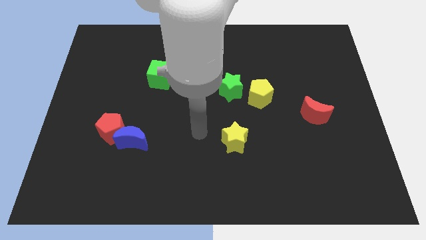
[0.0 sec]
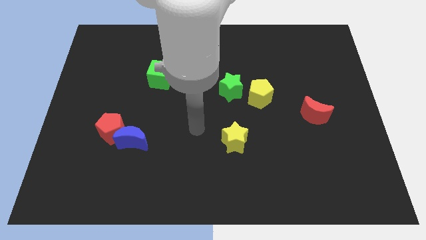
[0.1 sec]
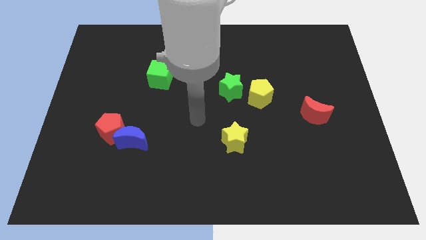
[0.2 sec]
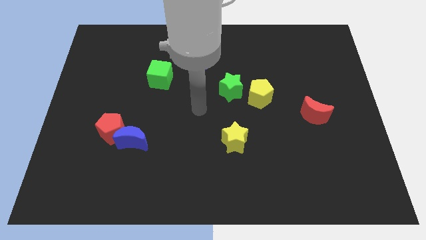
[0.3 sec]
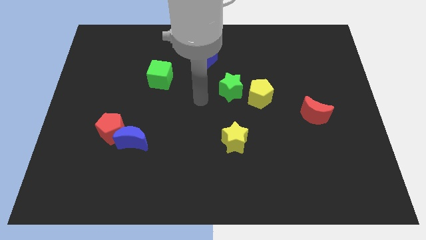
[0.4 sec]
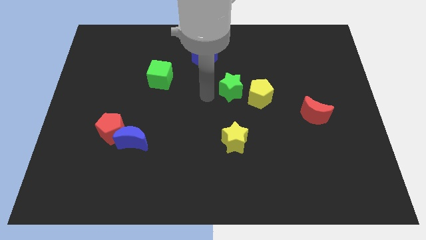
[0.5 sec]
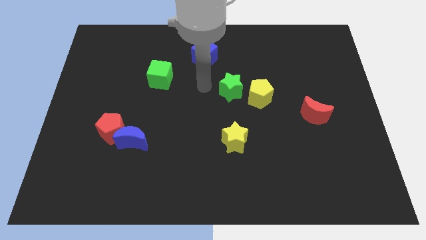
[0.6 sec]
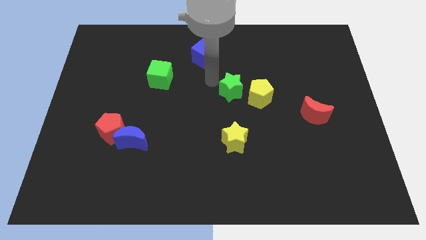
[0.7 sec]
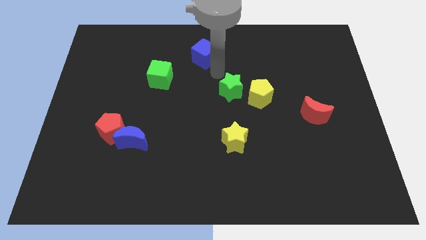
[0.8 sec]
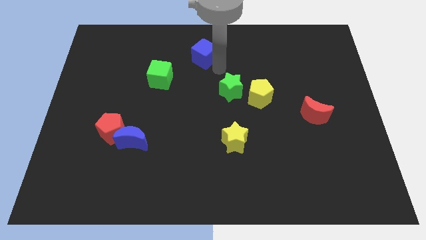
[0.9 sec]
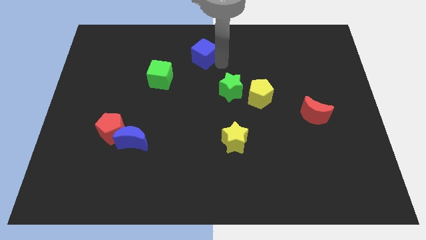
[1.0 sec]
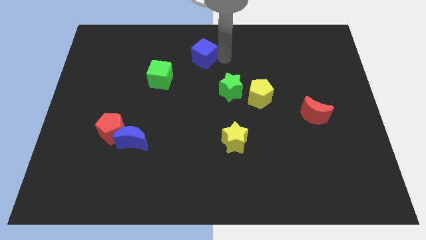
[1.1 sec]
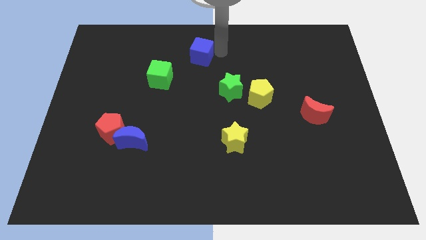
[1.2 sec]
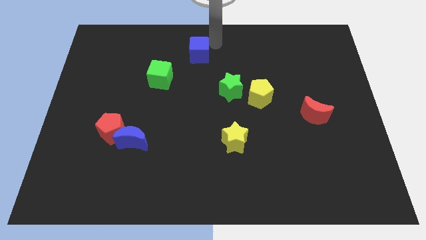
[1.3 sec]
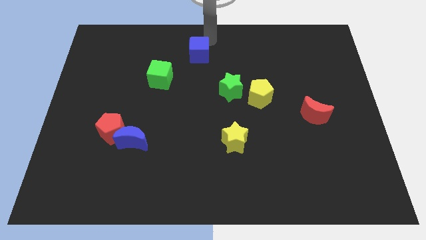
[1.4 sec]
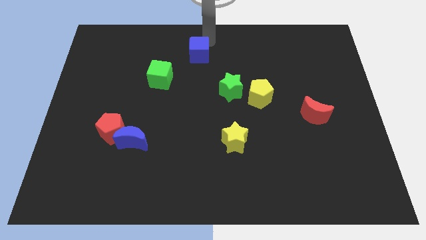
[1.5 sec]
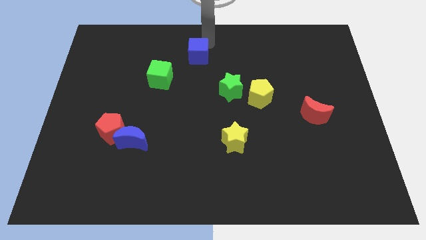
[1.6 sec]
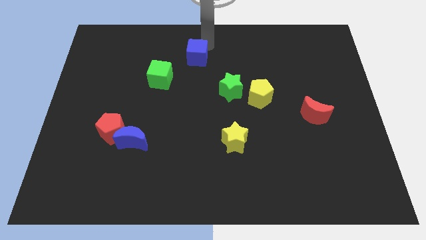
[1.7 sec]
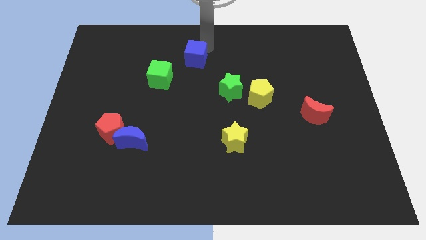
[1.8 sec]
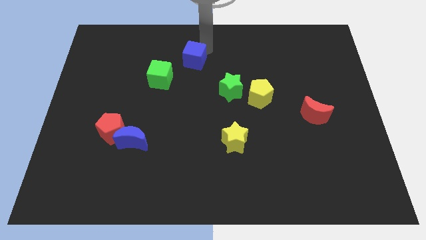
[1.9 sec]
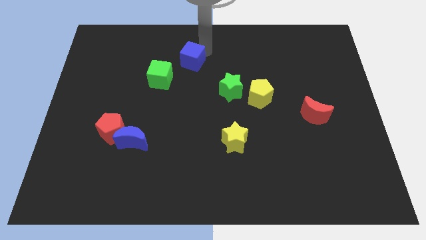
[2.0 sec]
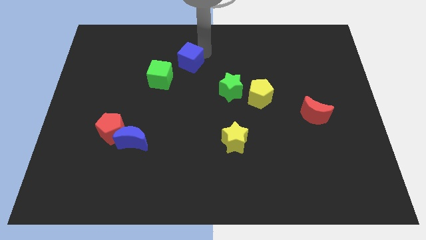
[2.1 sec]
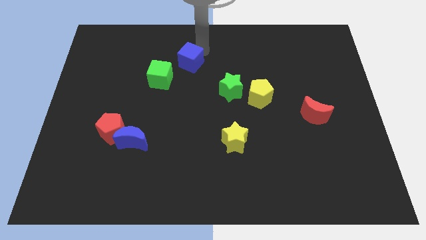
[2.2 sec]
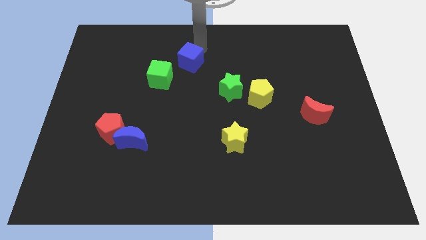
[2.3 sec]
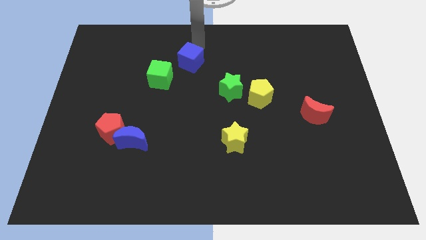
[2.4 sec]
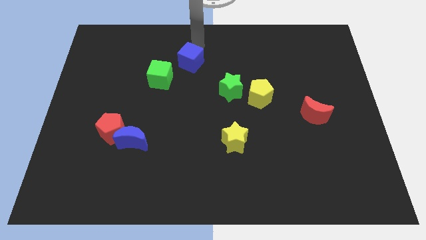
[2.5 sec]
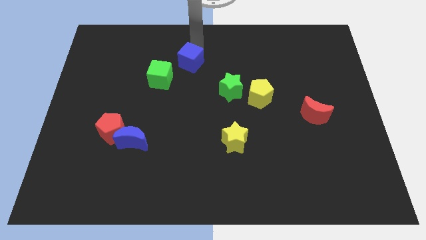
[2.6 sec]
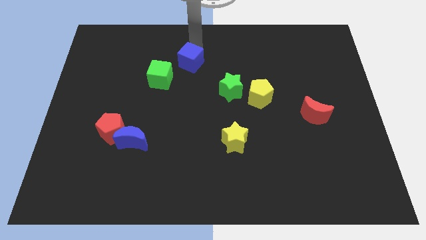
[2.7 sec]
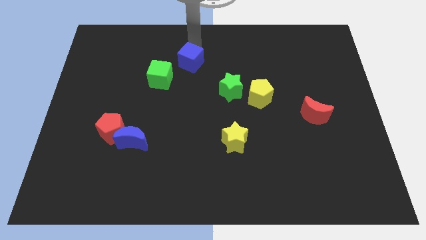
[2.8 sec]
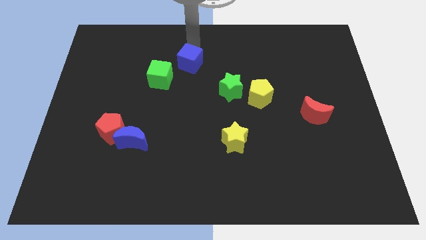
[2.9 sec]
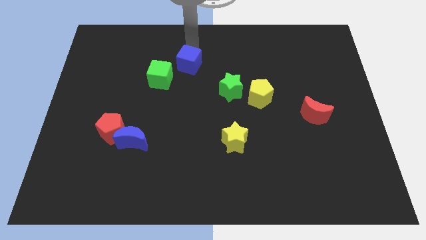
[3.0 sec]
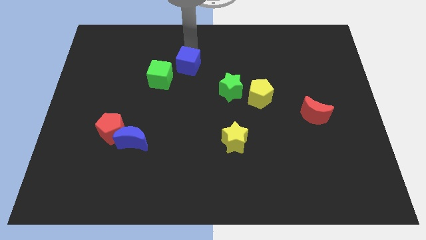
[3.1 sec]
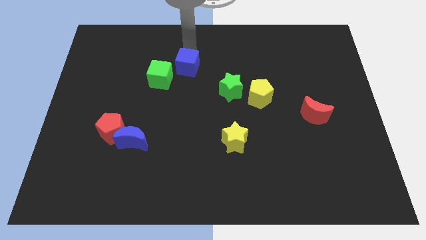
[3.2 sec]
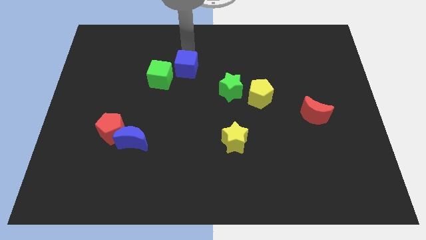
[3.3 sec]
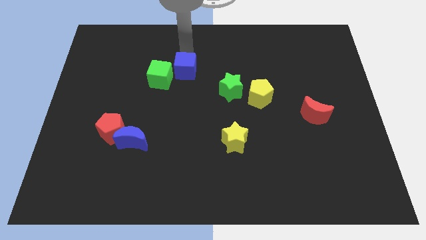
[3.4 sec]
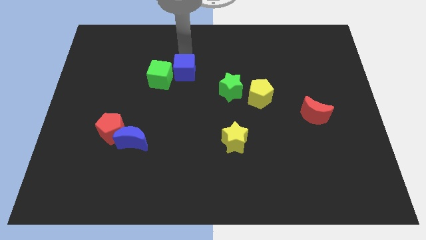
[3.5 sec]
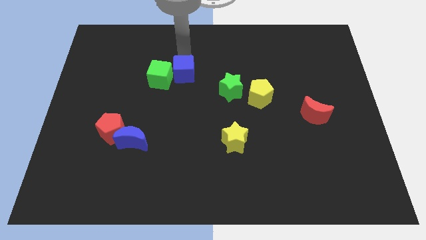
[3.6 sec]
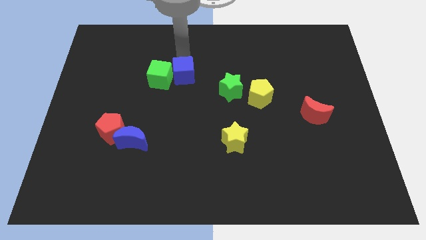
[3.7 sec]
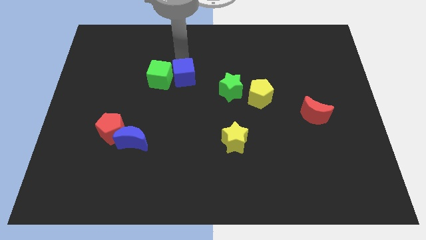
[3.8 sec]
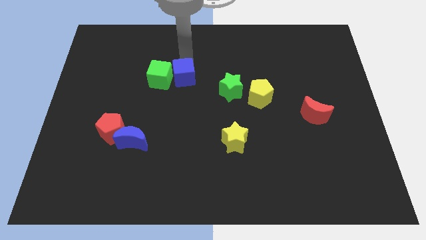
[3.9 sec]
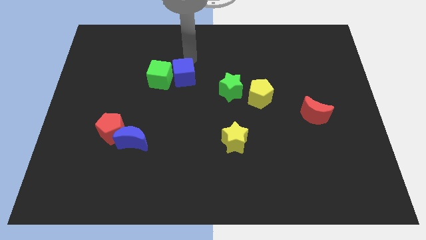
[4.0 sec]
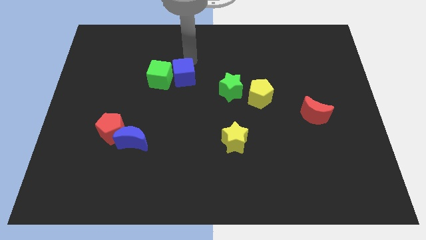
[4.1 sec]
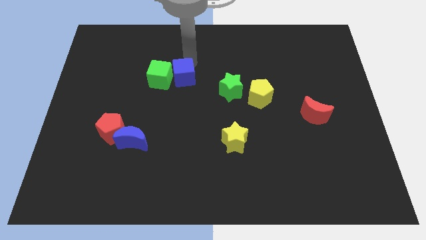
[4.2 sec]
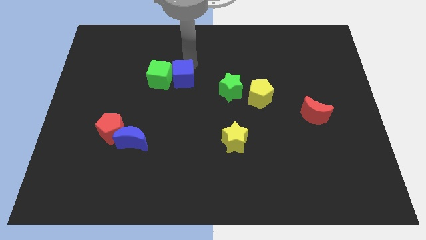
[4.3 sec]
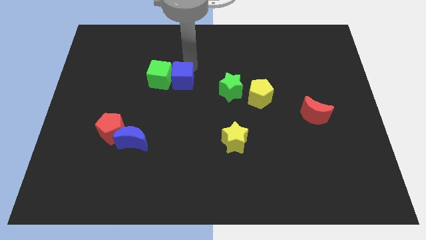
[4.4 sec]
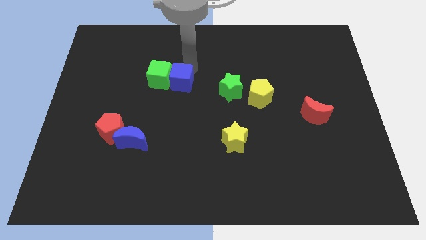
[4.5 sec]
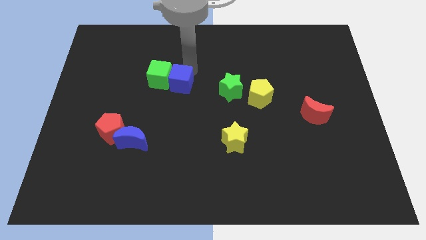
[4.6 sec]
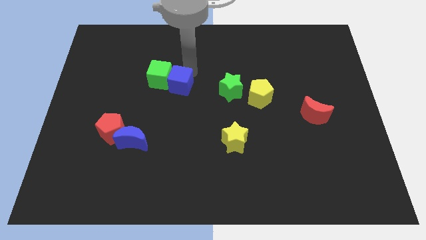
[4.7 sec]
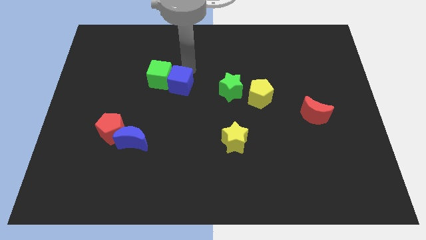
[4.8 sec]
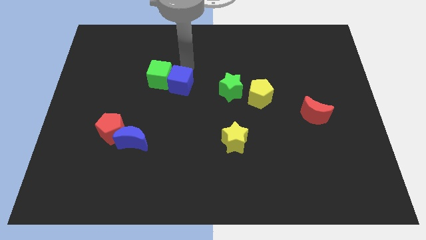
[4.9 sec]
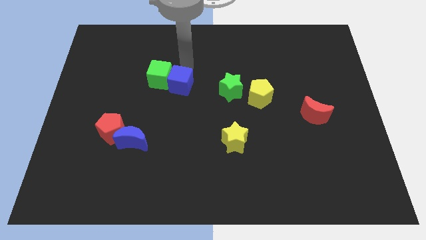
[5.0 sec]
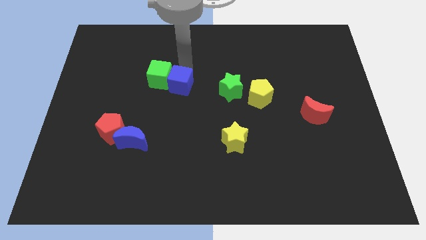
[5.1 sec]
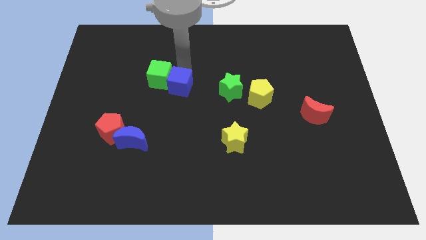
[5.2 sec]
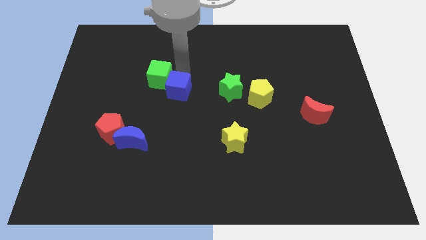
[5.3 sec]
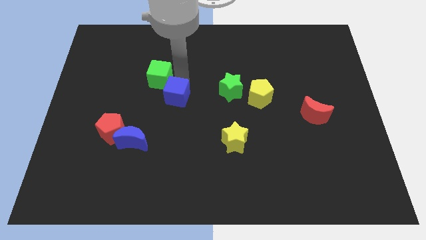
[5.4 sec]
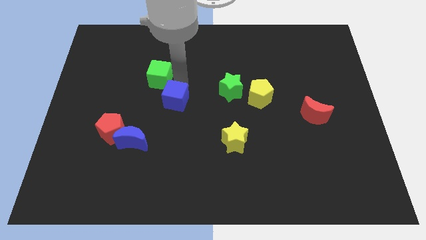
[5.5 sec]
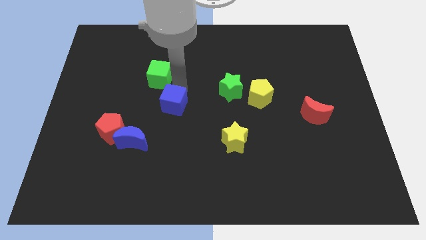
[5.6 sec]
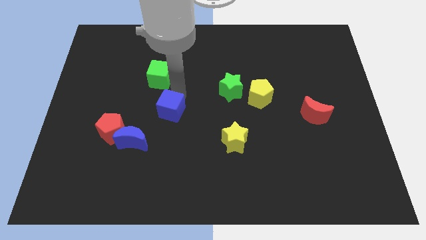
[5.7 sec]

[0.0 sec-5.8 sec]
put the blue cube diagonally up and to the right of the blue moon

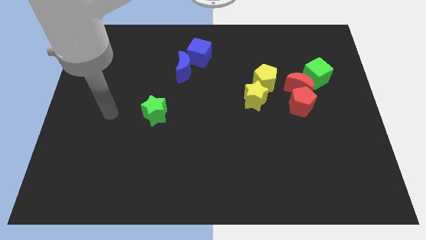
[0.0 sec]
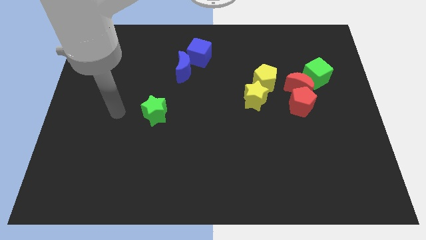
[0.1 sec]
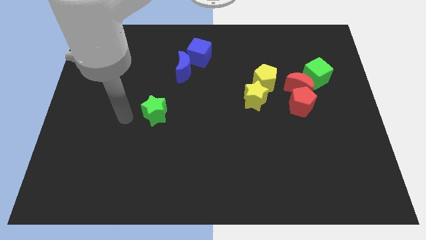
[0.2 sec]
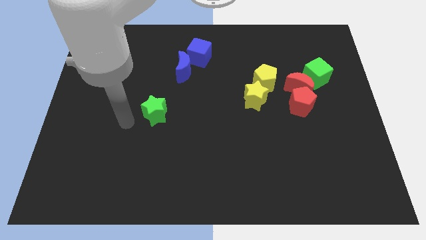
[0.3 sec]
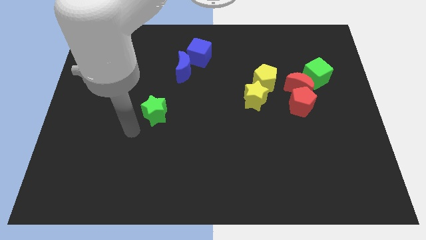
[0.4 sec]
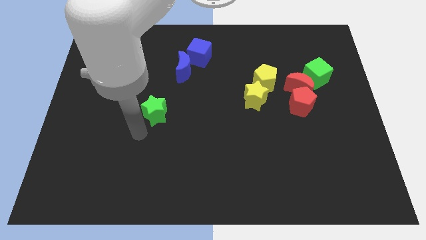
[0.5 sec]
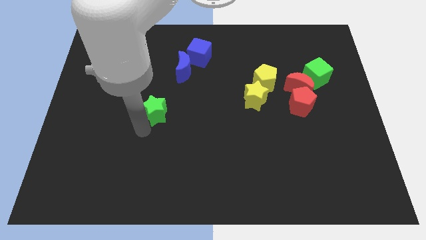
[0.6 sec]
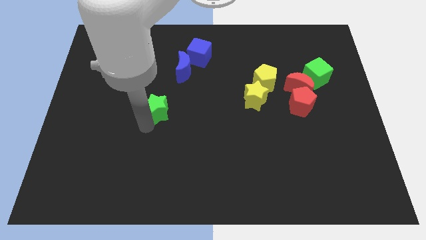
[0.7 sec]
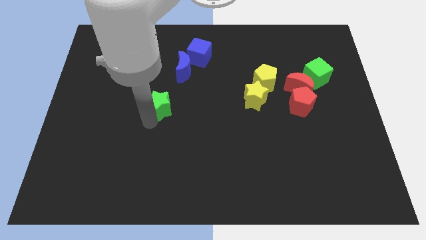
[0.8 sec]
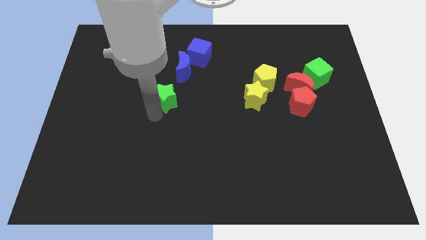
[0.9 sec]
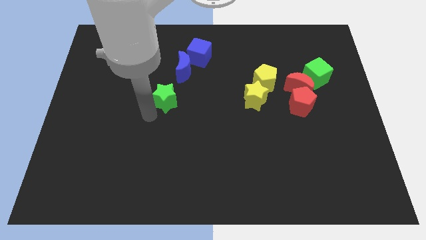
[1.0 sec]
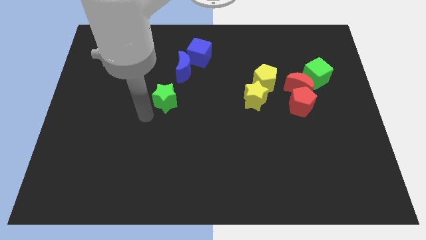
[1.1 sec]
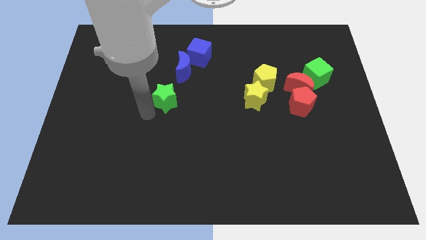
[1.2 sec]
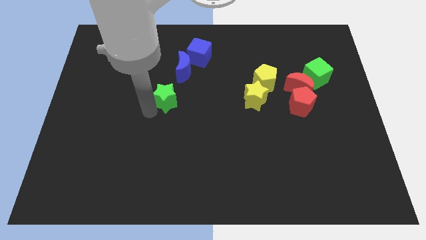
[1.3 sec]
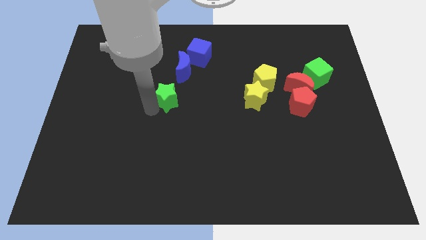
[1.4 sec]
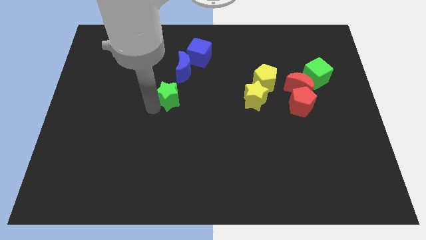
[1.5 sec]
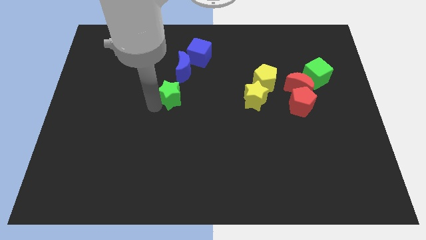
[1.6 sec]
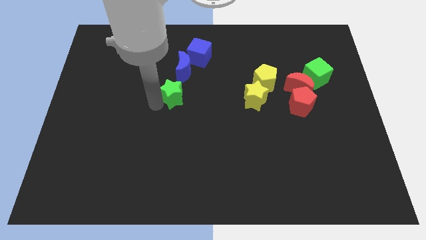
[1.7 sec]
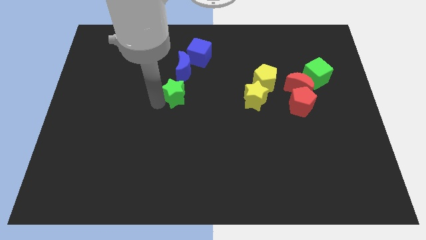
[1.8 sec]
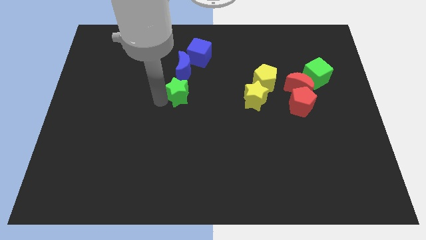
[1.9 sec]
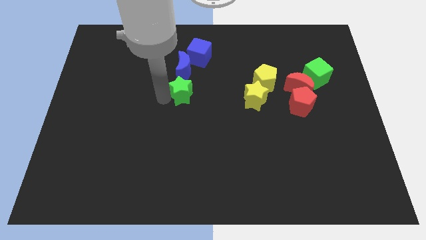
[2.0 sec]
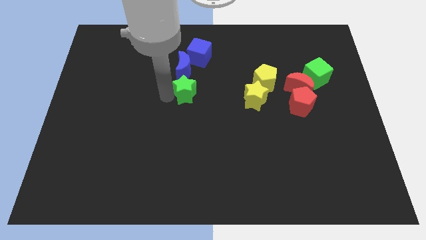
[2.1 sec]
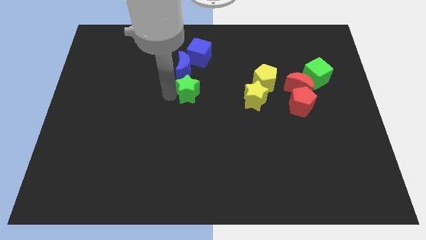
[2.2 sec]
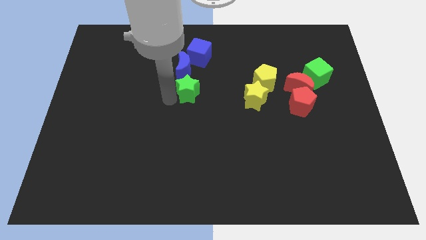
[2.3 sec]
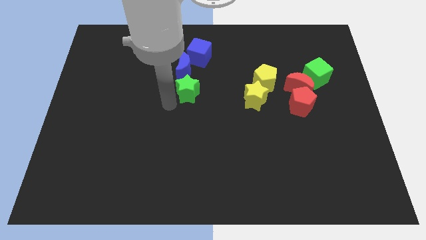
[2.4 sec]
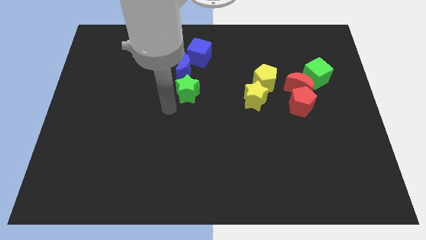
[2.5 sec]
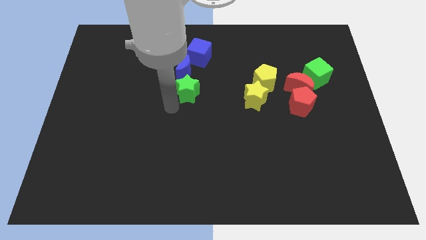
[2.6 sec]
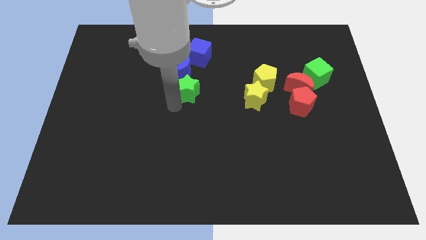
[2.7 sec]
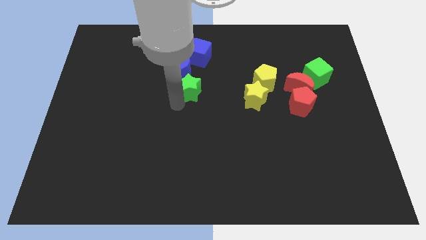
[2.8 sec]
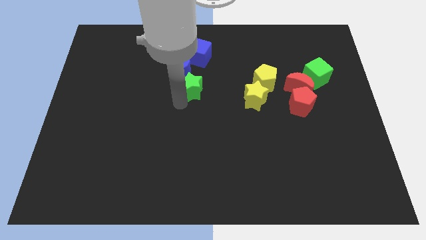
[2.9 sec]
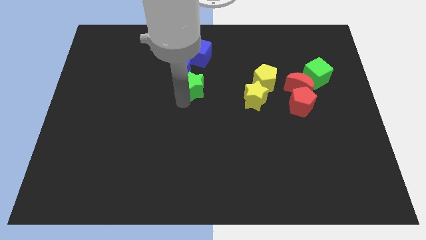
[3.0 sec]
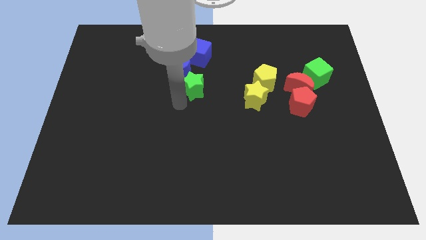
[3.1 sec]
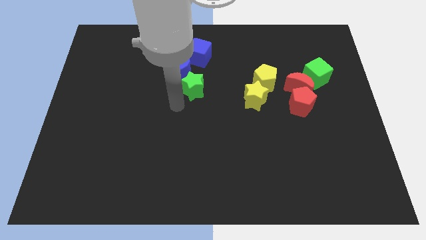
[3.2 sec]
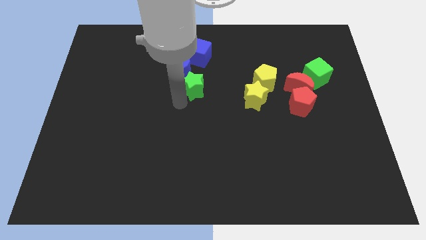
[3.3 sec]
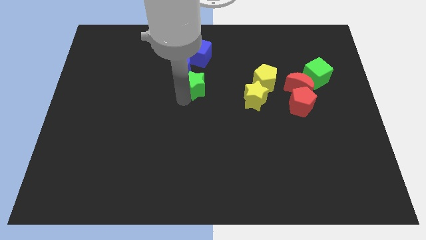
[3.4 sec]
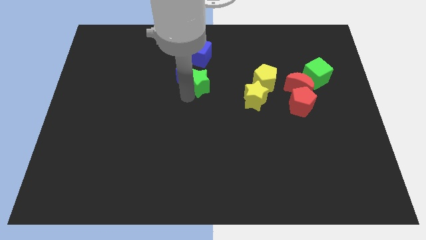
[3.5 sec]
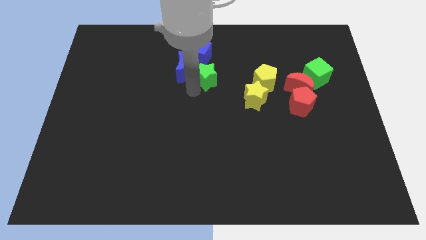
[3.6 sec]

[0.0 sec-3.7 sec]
push the green star right of the blue moon
